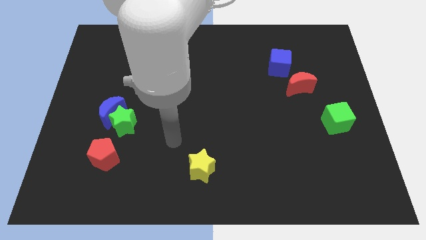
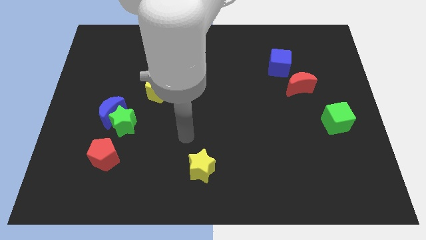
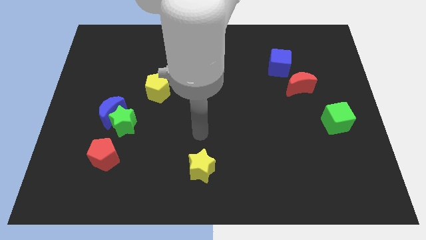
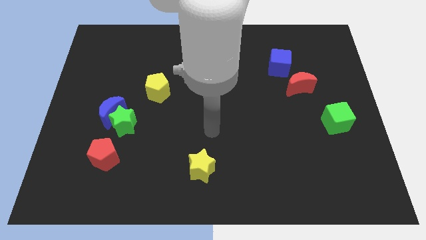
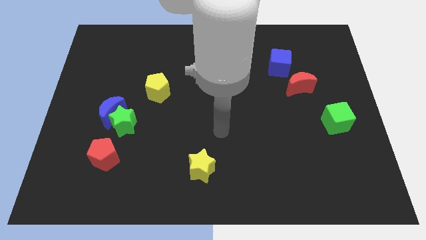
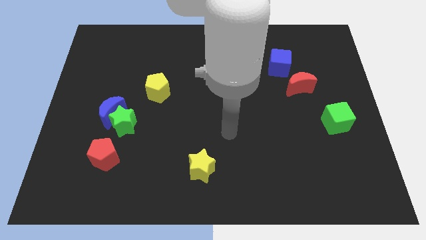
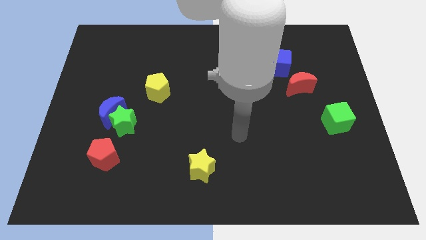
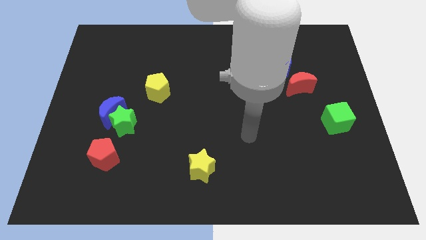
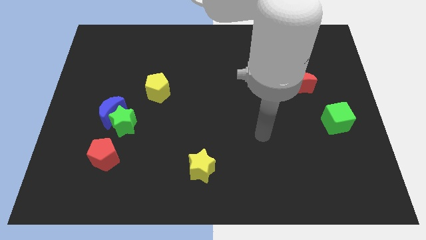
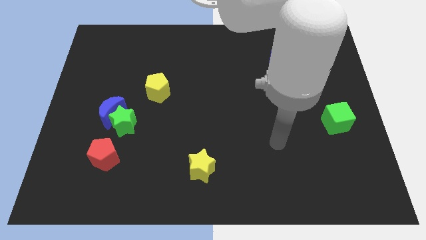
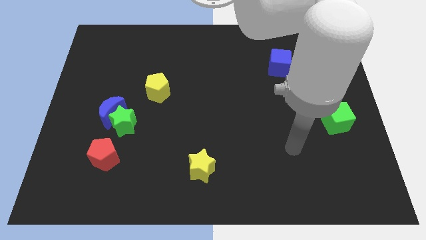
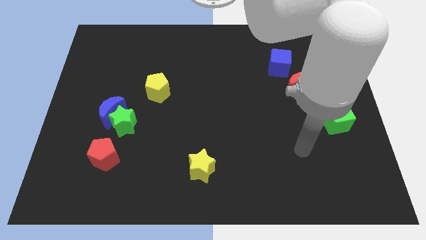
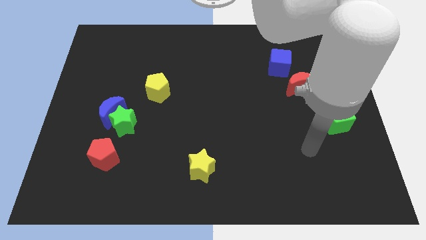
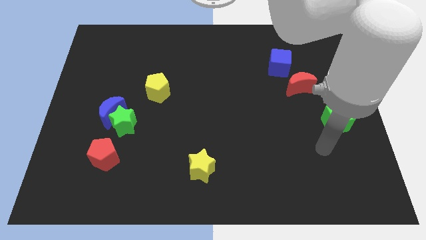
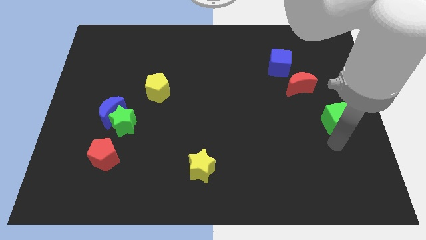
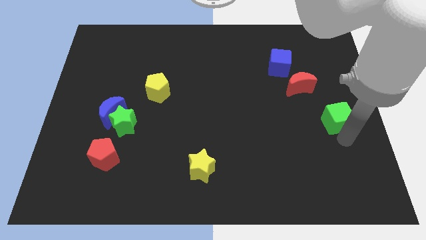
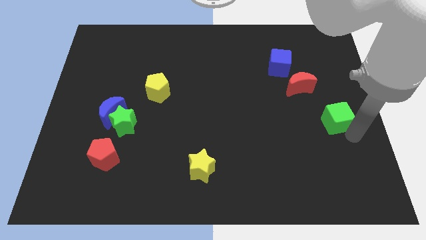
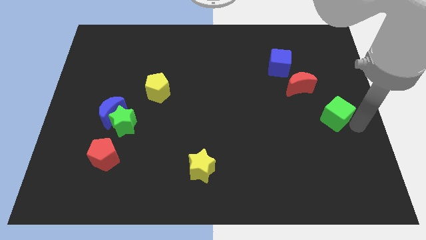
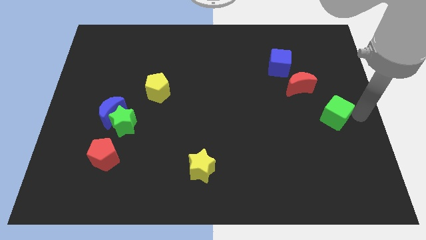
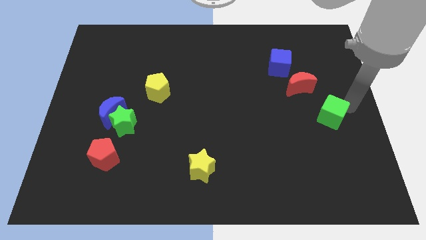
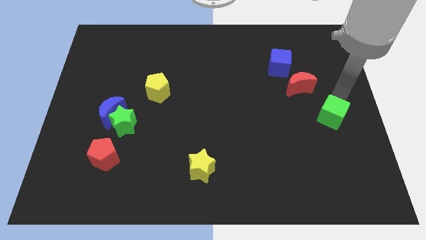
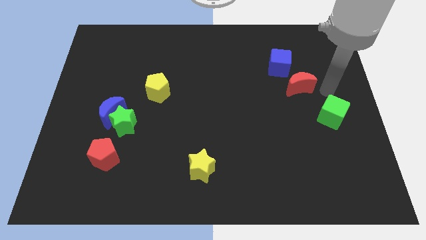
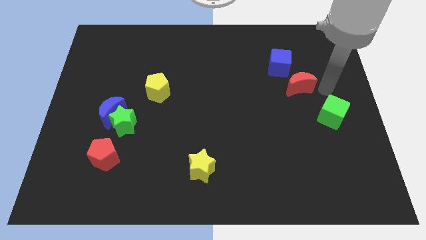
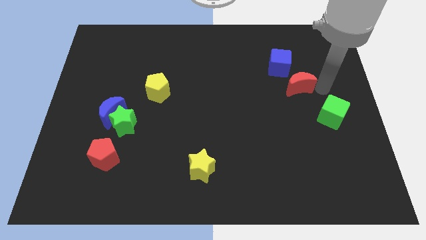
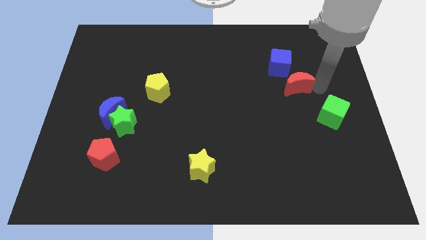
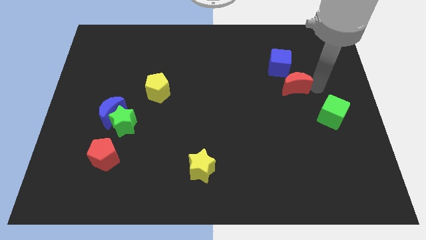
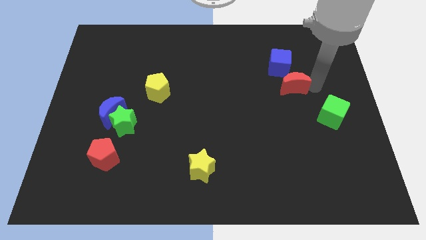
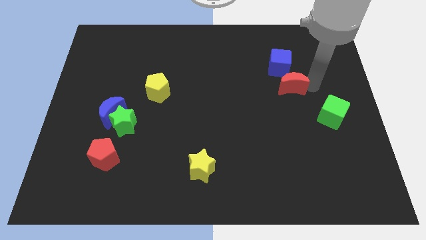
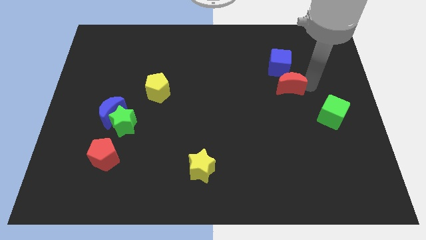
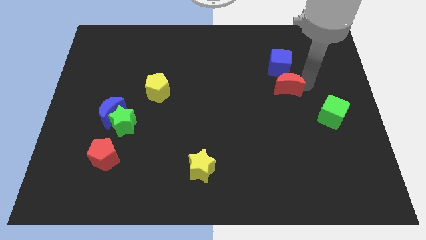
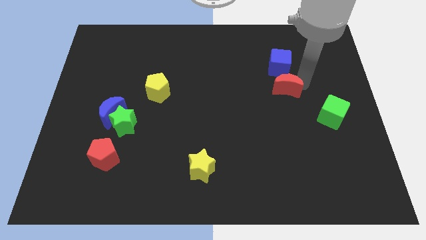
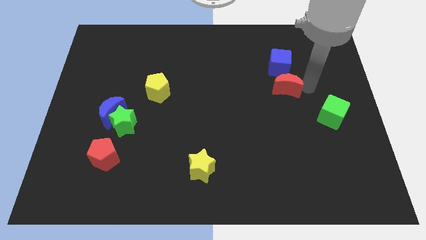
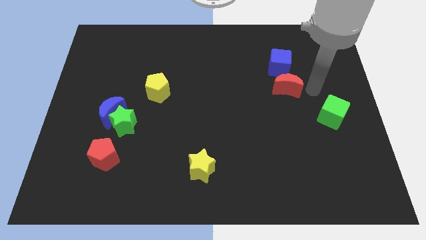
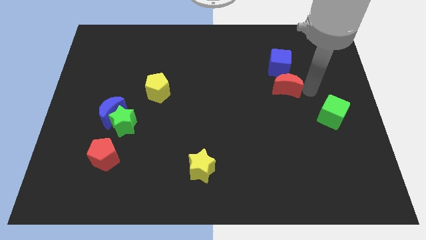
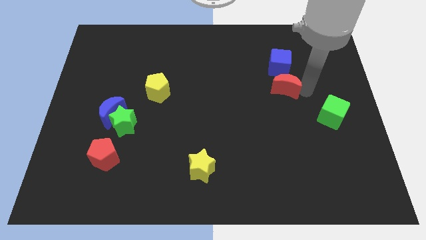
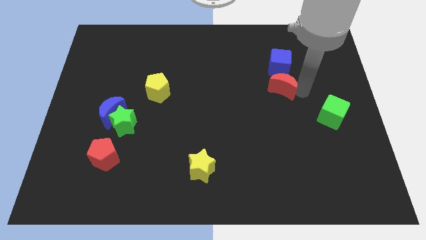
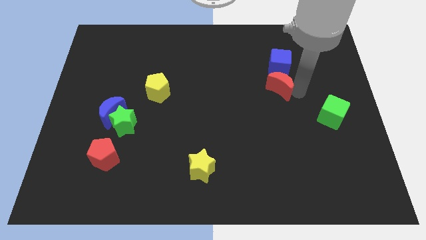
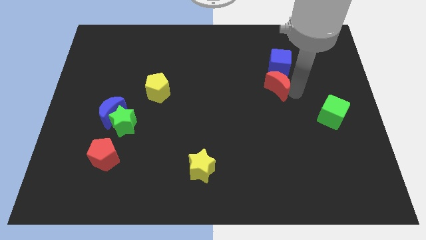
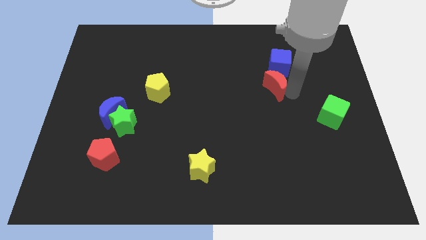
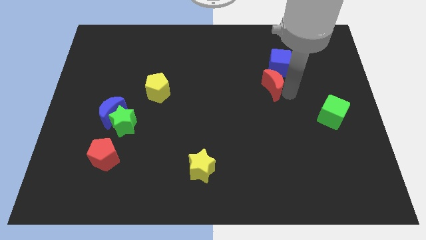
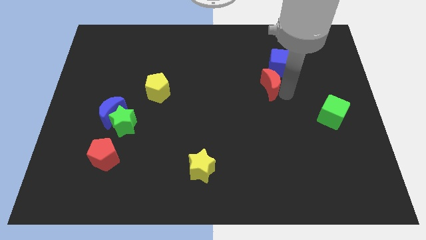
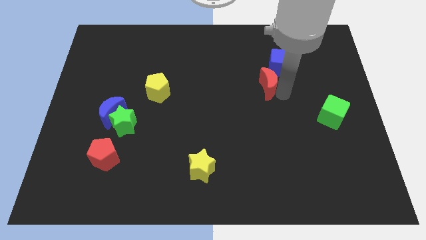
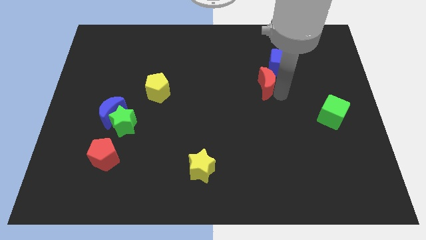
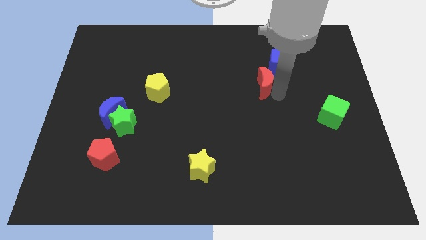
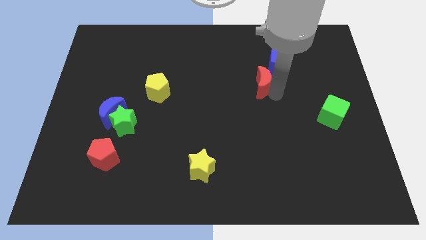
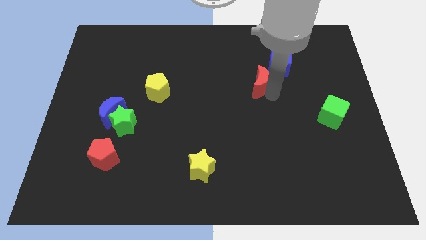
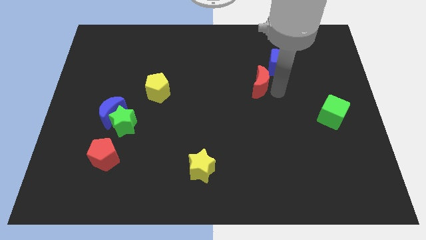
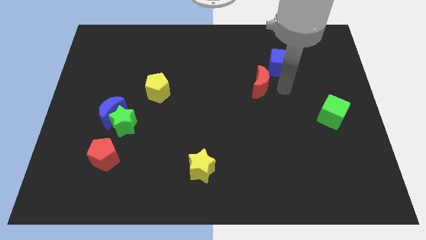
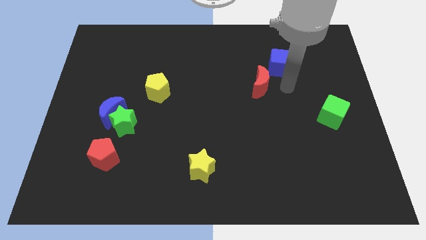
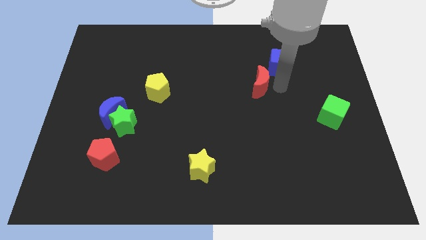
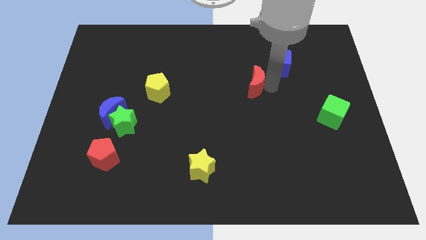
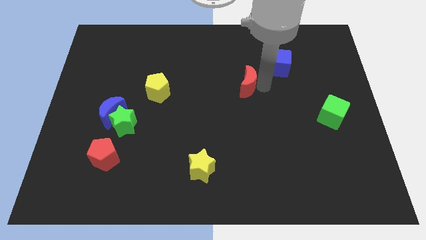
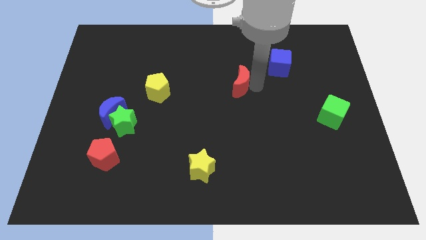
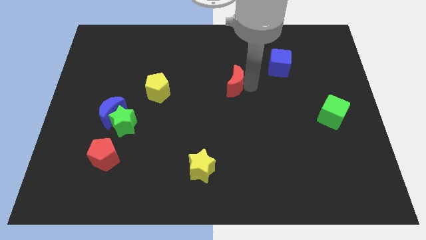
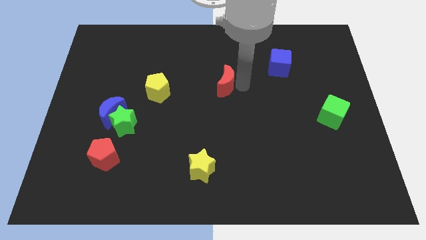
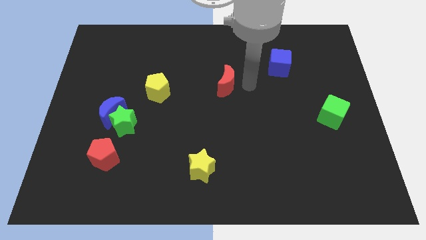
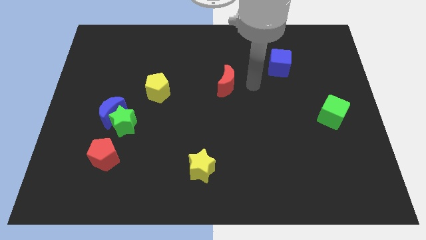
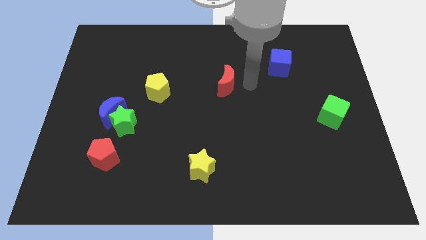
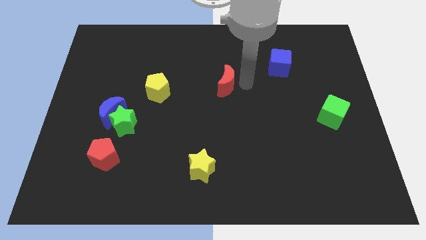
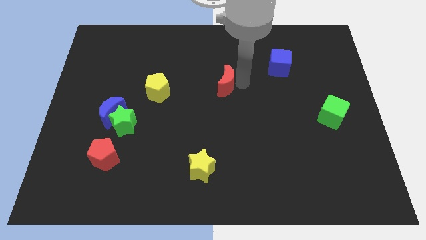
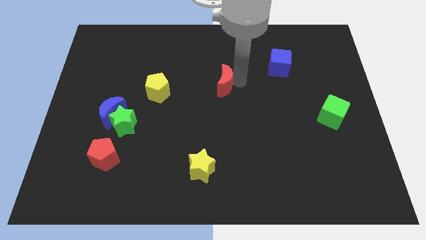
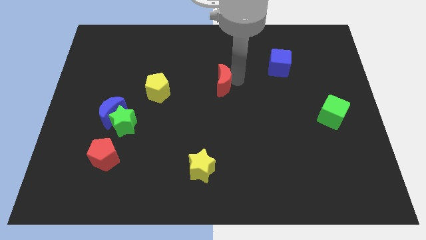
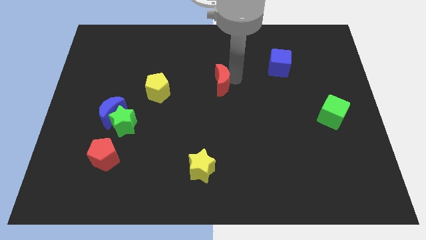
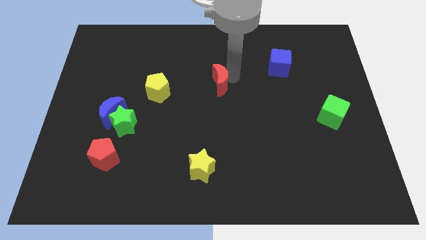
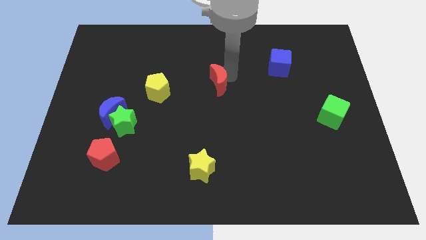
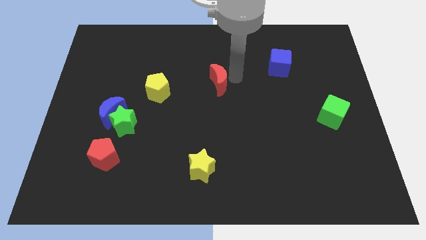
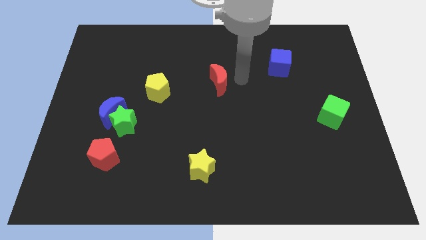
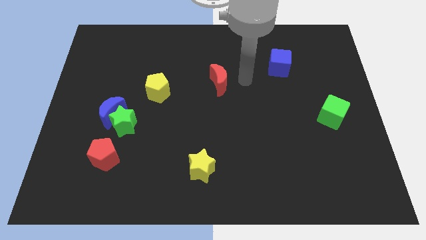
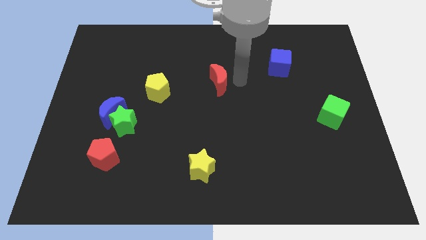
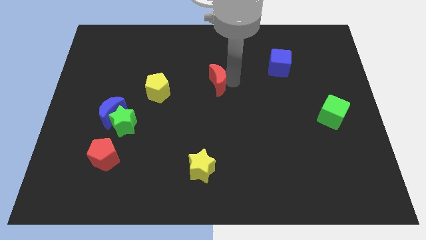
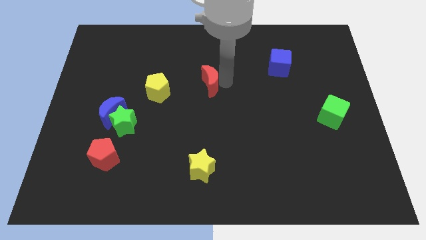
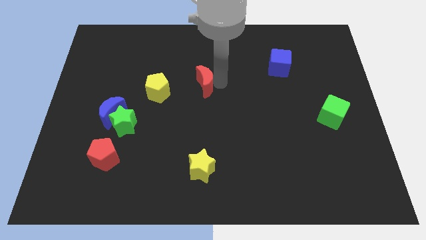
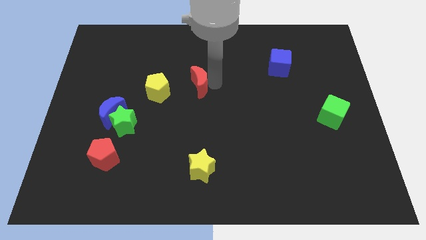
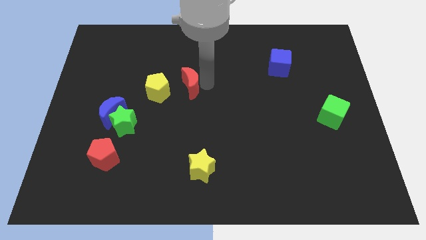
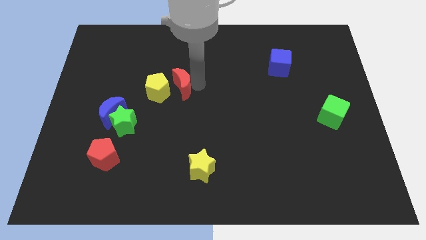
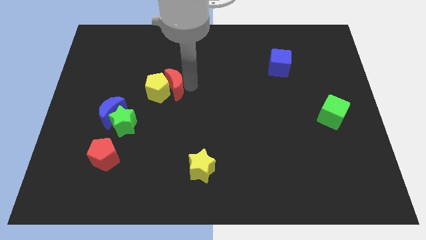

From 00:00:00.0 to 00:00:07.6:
move the red moon to the yellow pentagon
